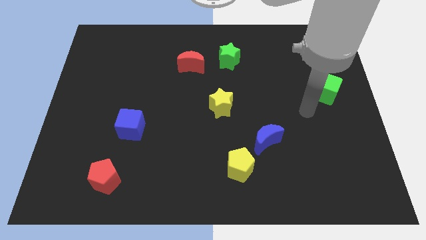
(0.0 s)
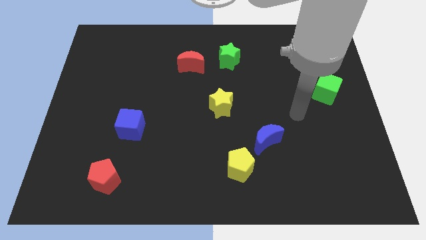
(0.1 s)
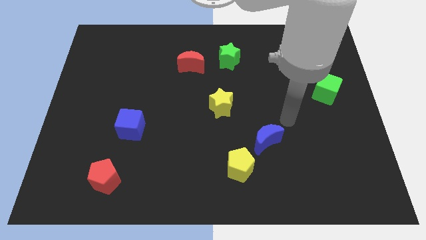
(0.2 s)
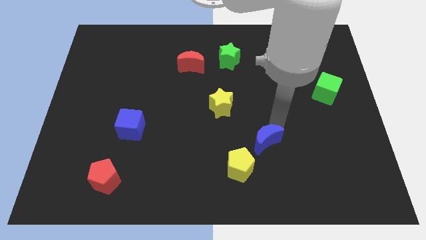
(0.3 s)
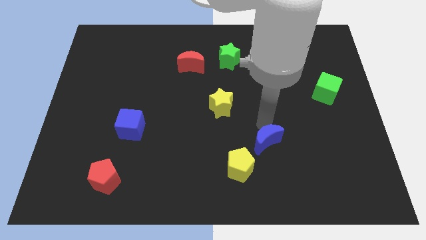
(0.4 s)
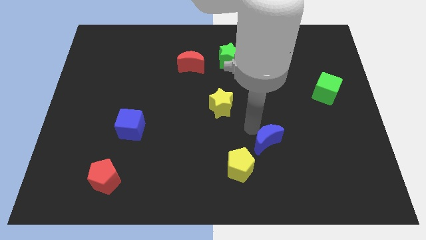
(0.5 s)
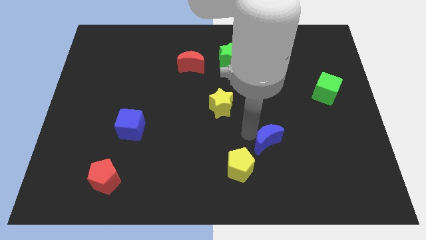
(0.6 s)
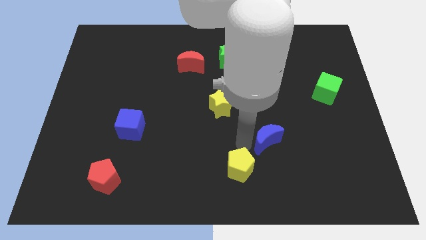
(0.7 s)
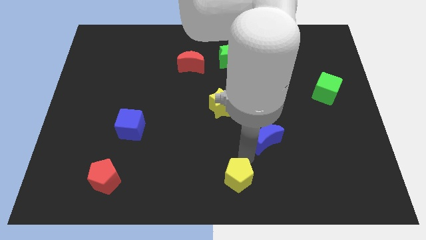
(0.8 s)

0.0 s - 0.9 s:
move the blue moon away from the yellow pentagon

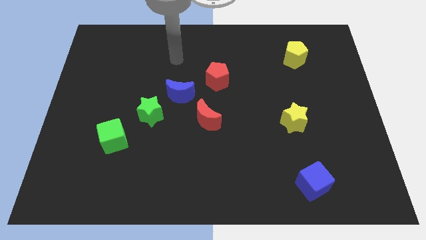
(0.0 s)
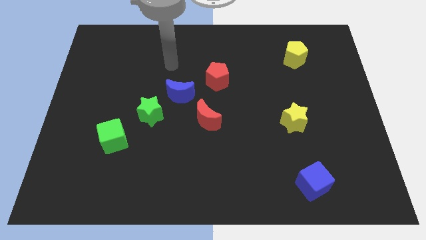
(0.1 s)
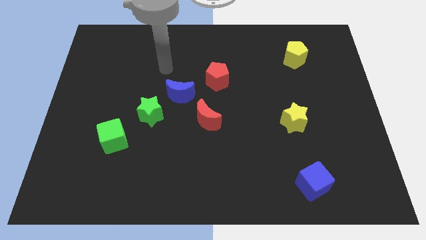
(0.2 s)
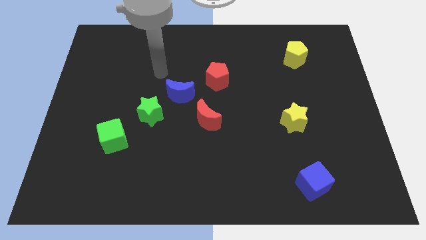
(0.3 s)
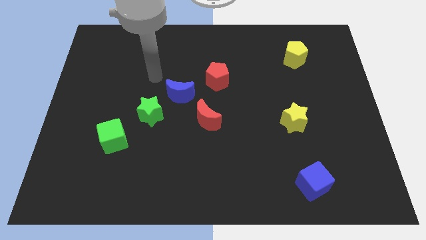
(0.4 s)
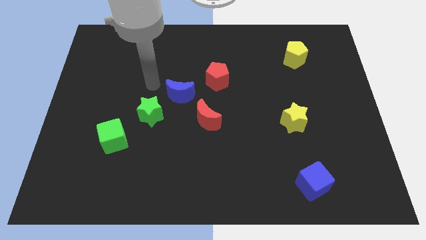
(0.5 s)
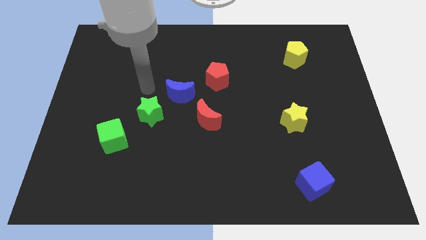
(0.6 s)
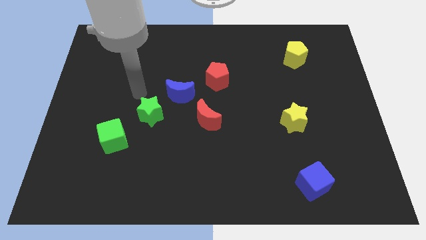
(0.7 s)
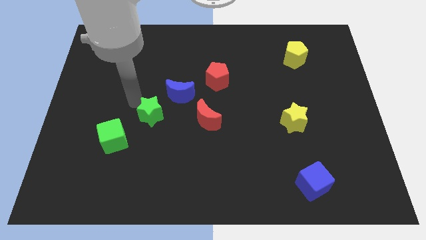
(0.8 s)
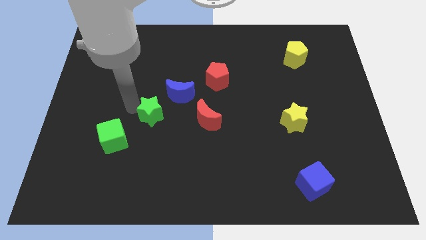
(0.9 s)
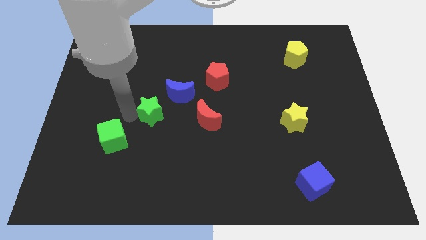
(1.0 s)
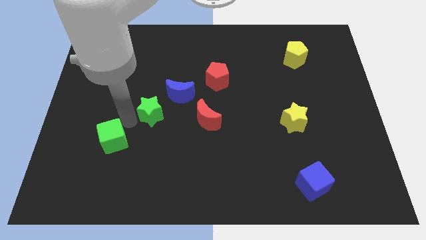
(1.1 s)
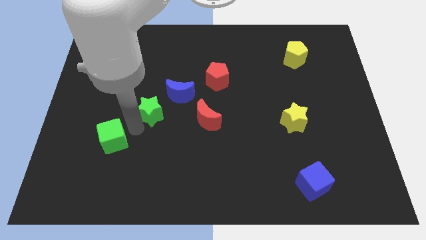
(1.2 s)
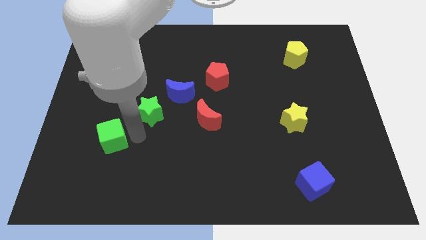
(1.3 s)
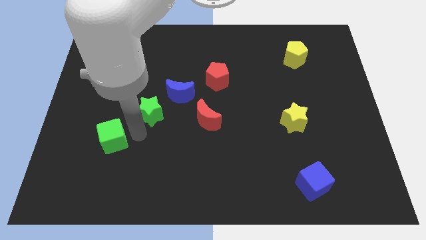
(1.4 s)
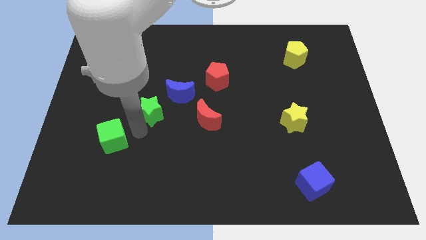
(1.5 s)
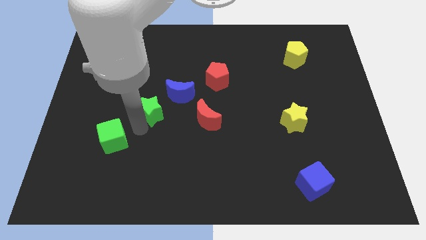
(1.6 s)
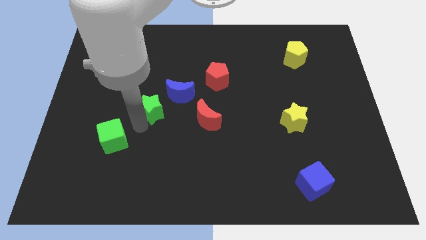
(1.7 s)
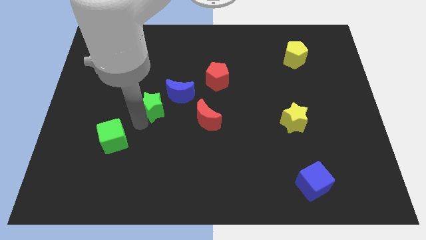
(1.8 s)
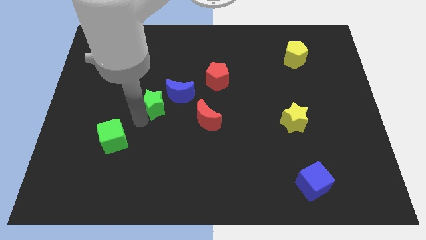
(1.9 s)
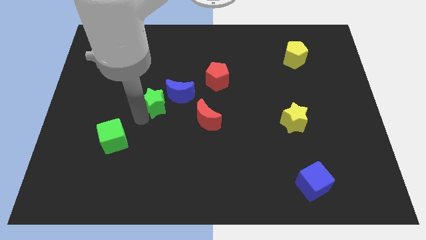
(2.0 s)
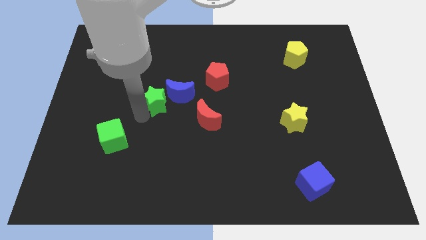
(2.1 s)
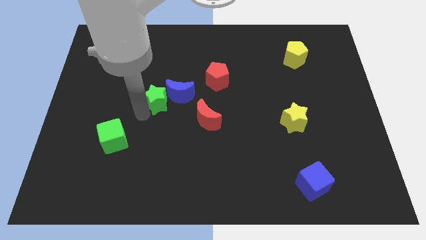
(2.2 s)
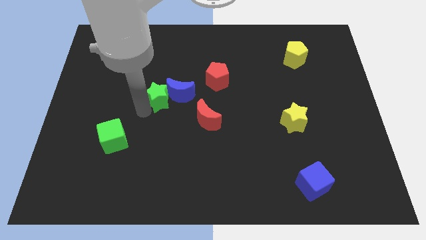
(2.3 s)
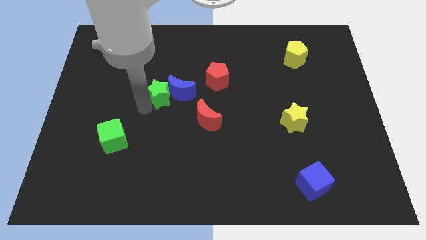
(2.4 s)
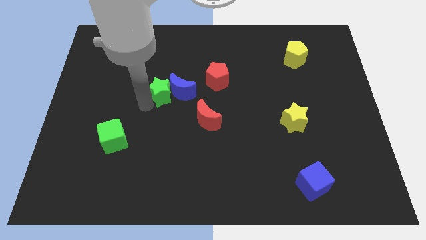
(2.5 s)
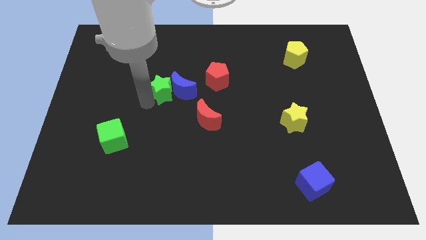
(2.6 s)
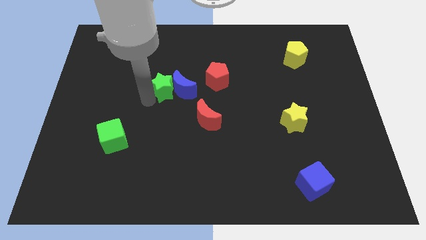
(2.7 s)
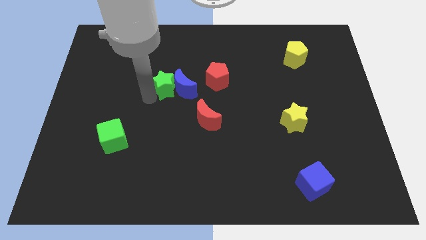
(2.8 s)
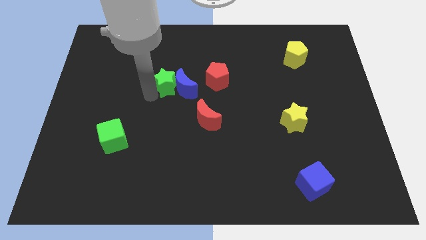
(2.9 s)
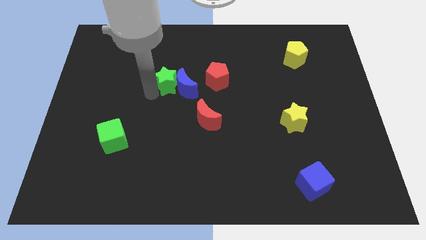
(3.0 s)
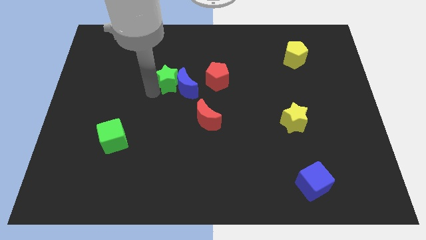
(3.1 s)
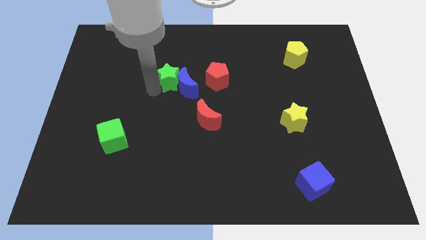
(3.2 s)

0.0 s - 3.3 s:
separate the green star from the blue moon and green cube

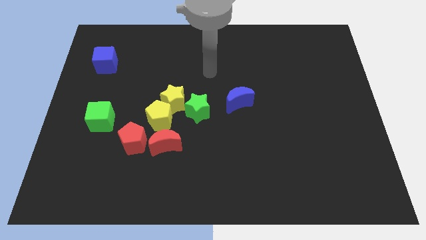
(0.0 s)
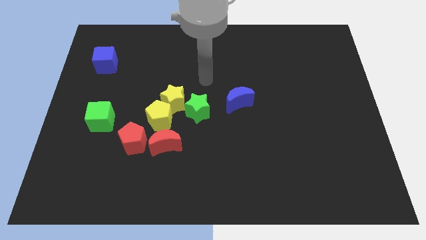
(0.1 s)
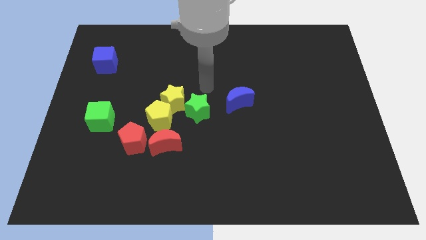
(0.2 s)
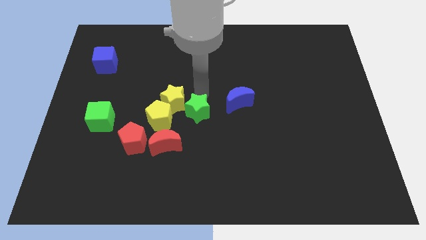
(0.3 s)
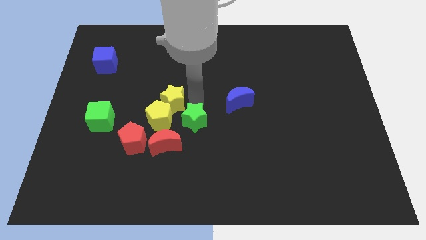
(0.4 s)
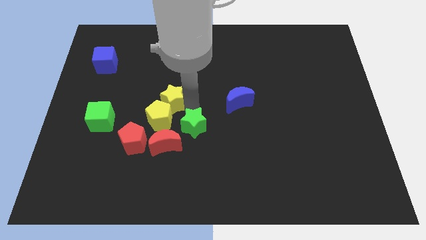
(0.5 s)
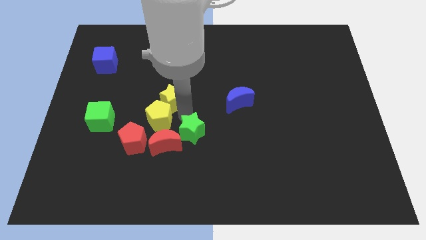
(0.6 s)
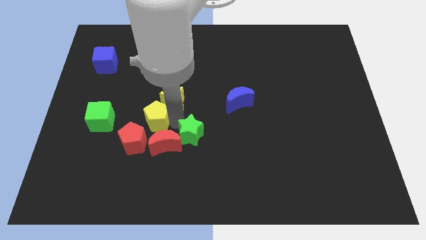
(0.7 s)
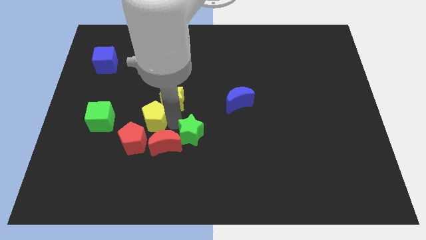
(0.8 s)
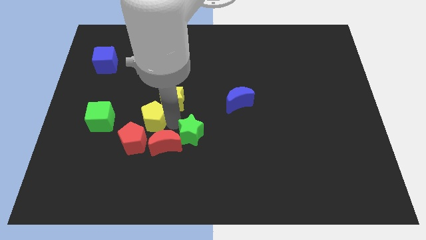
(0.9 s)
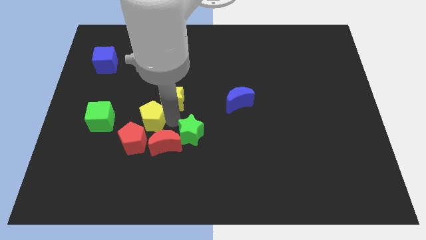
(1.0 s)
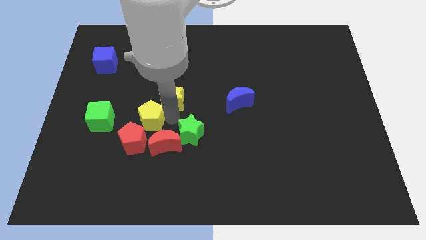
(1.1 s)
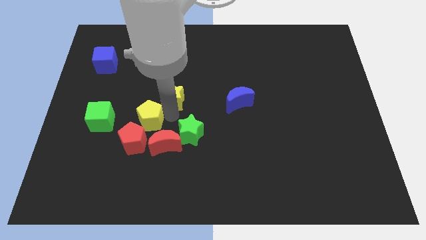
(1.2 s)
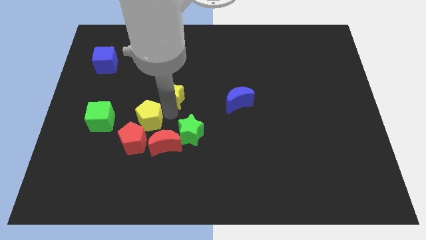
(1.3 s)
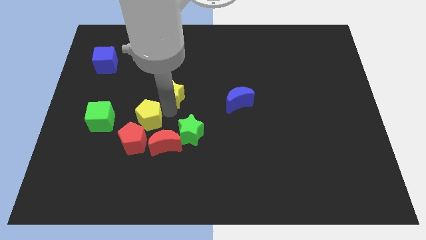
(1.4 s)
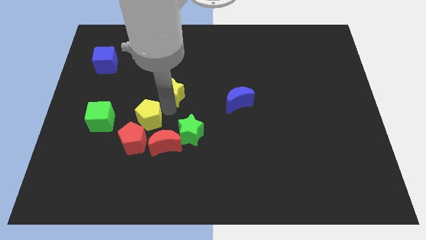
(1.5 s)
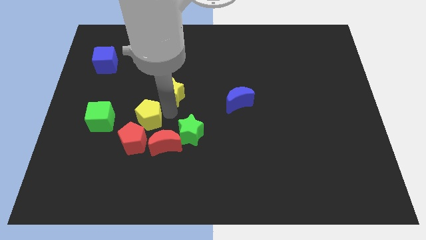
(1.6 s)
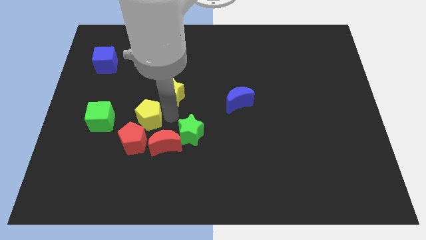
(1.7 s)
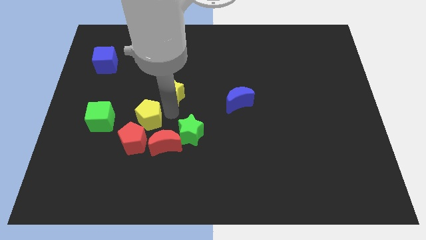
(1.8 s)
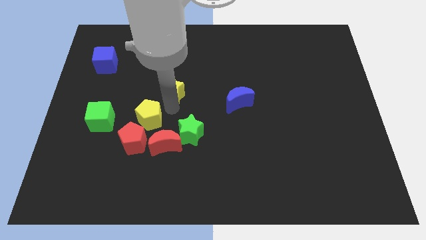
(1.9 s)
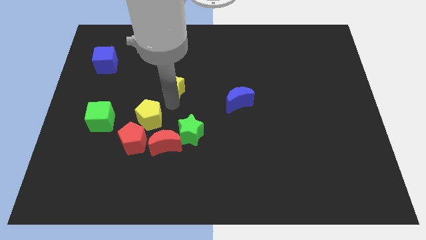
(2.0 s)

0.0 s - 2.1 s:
move the yellow star away from the yellow pentagon and green star

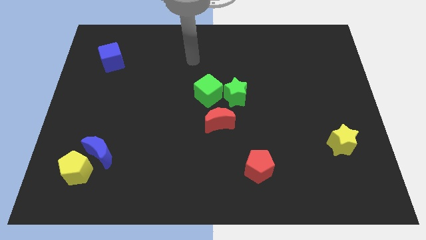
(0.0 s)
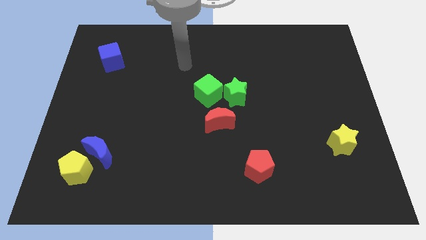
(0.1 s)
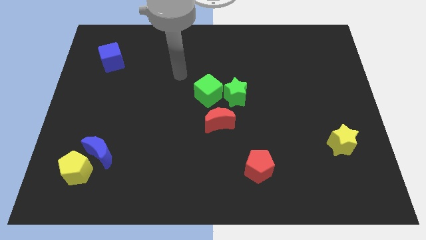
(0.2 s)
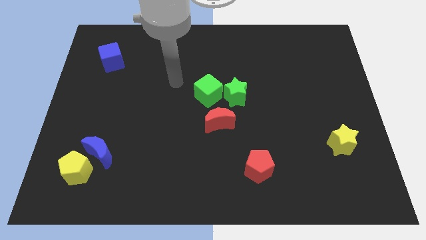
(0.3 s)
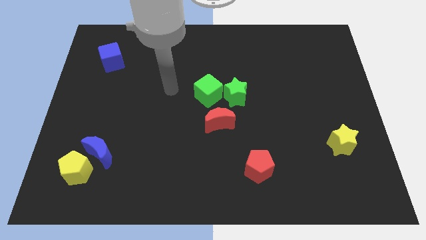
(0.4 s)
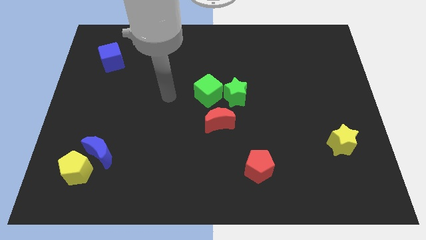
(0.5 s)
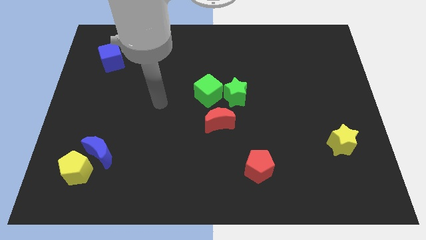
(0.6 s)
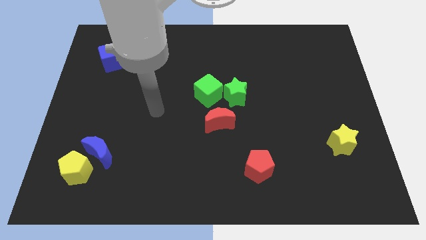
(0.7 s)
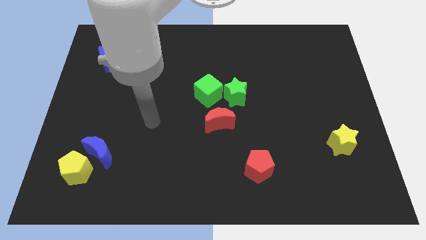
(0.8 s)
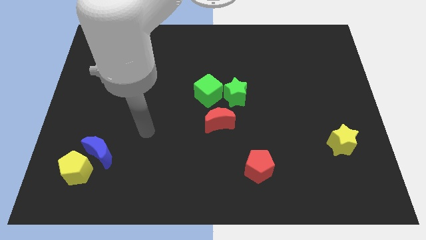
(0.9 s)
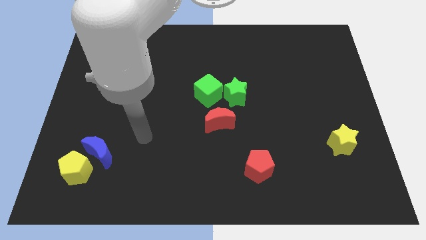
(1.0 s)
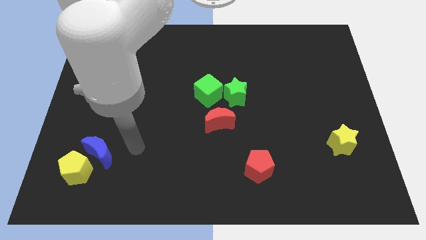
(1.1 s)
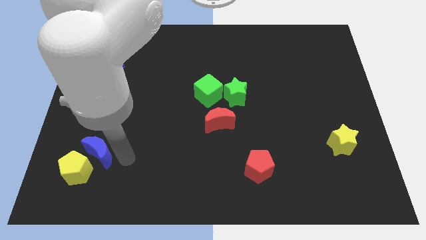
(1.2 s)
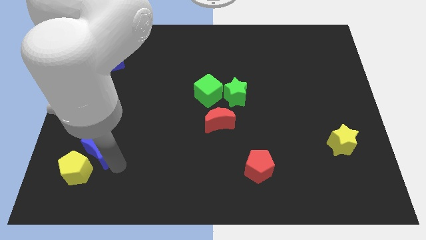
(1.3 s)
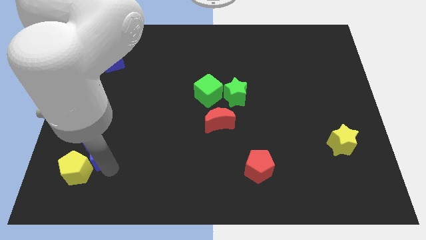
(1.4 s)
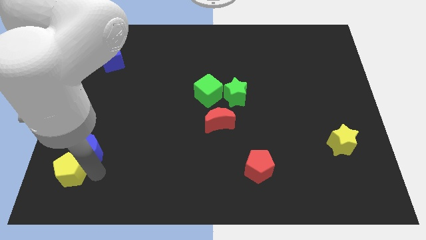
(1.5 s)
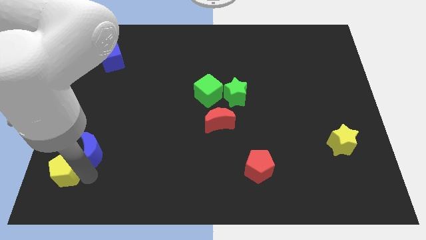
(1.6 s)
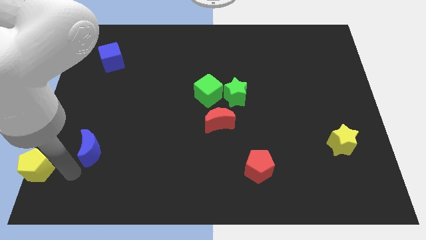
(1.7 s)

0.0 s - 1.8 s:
separate the blue moon from the yellow pentagon

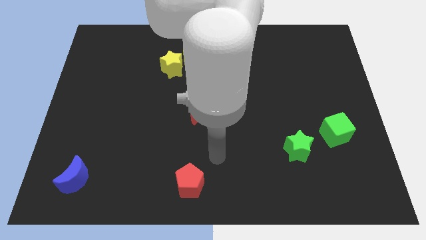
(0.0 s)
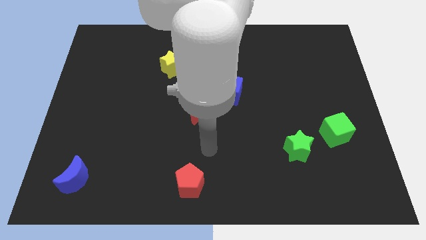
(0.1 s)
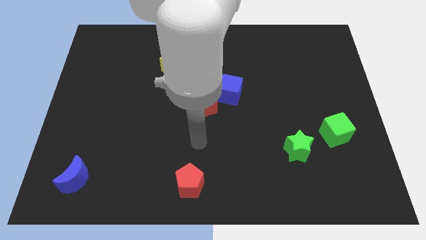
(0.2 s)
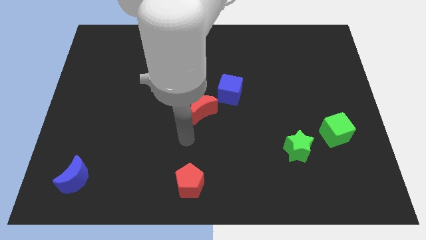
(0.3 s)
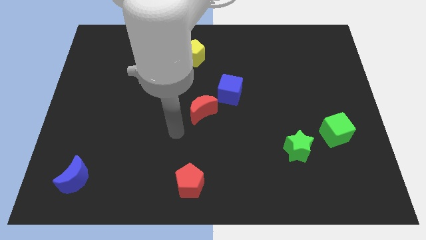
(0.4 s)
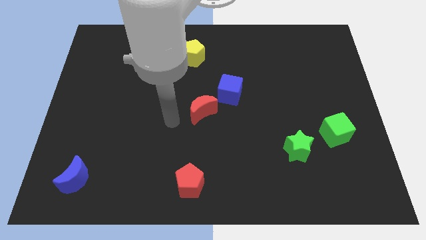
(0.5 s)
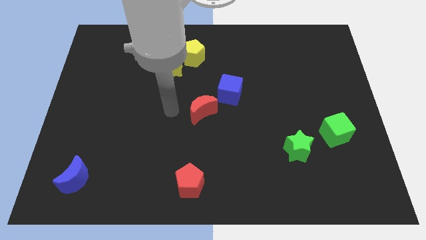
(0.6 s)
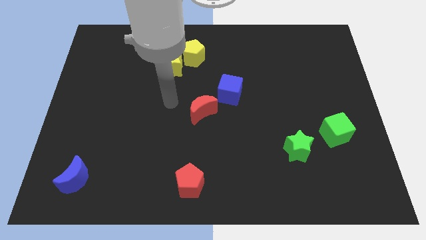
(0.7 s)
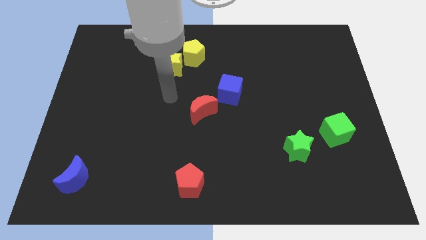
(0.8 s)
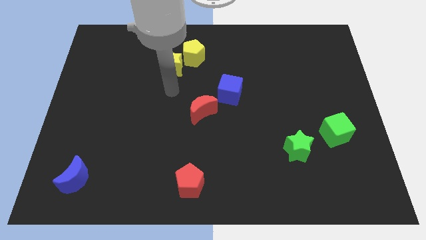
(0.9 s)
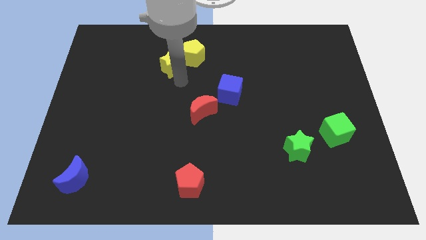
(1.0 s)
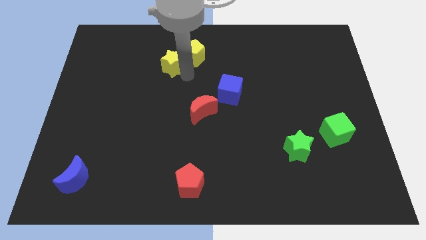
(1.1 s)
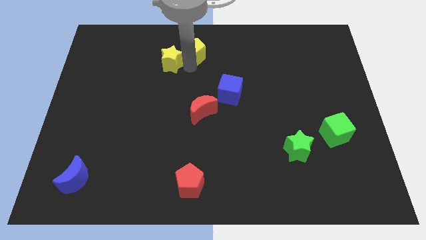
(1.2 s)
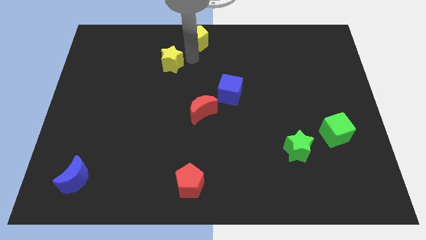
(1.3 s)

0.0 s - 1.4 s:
move the yellow star away from the yellow pentagon
